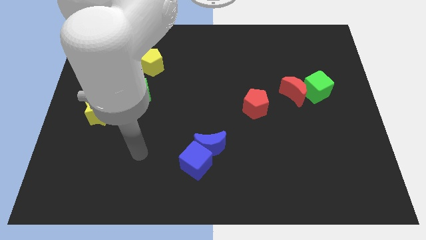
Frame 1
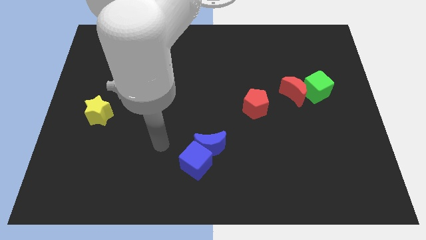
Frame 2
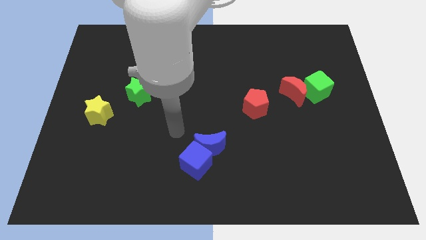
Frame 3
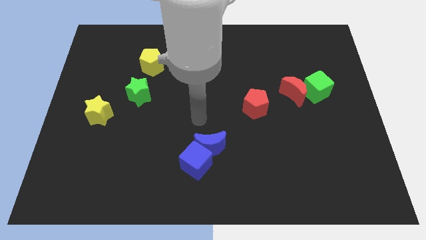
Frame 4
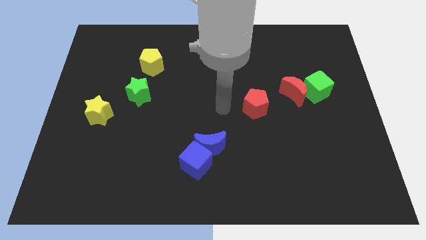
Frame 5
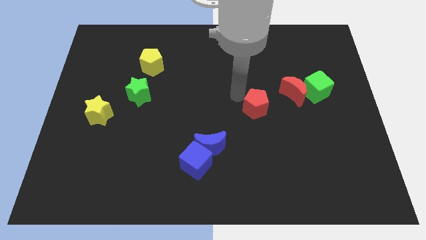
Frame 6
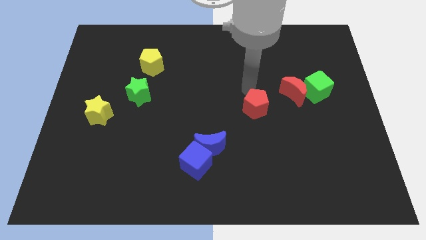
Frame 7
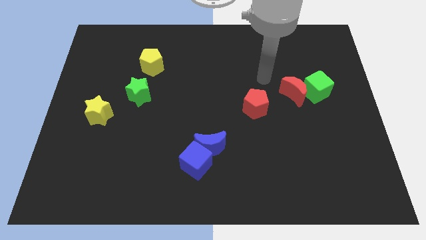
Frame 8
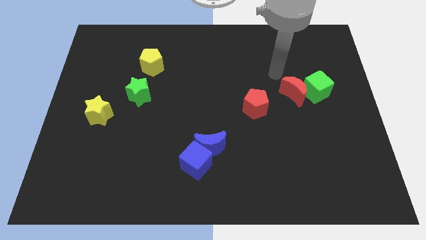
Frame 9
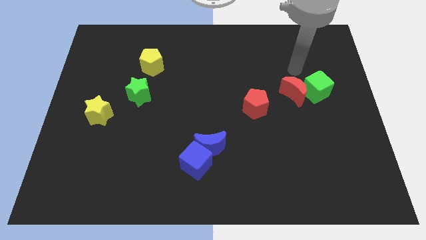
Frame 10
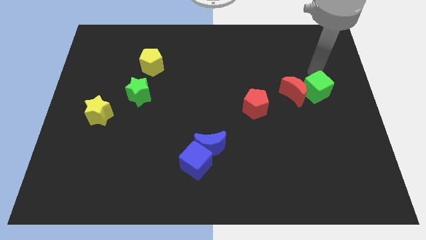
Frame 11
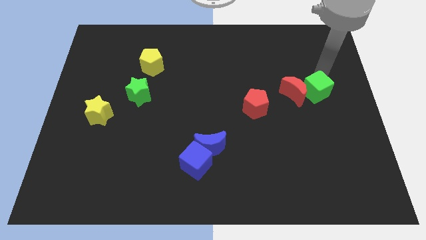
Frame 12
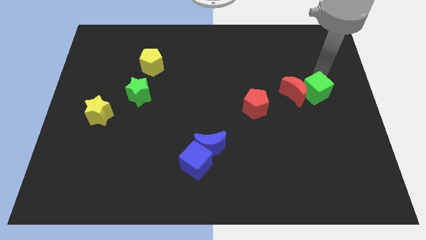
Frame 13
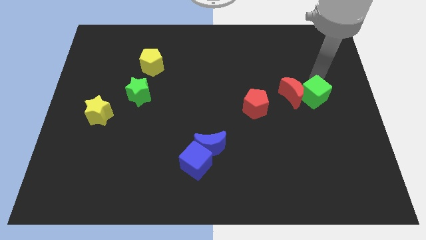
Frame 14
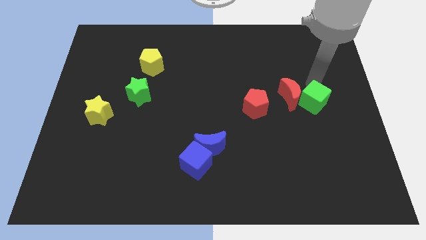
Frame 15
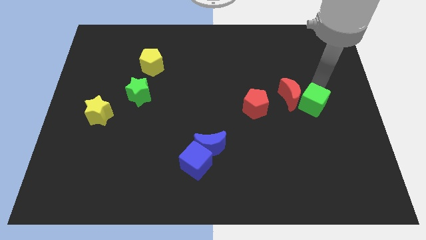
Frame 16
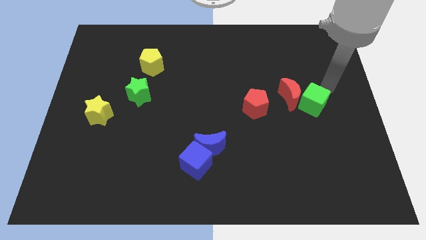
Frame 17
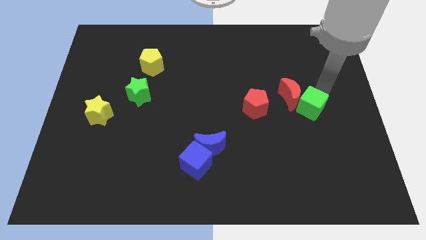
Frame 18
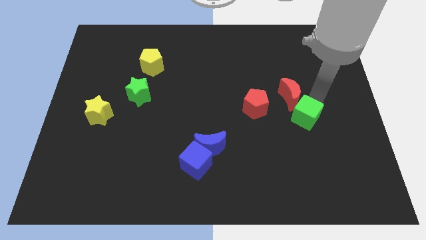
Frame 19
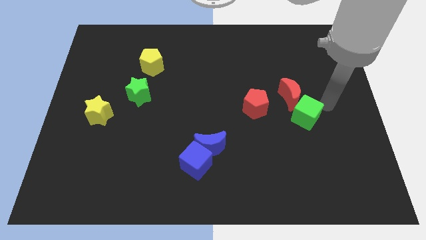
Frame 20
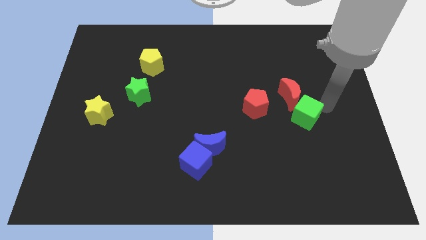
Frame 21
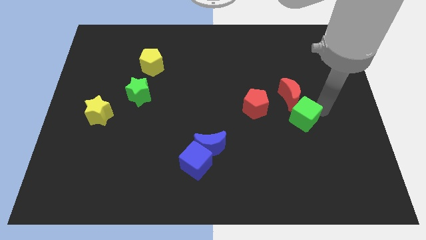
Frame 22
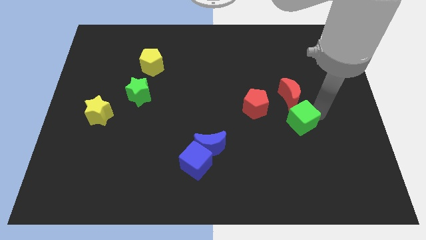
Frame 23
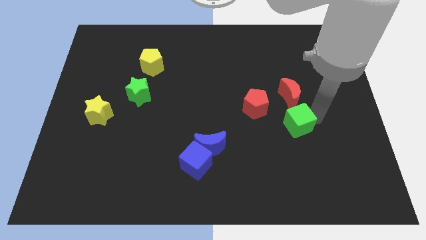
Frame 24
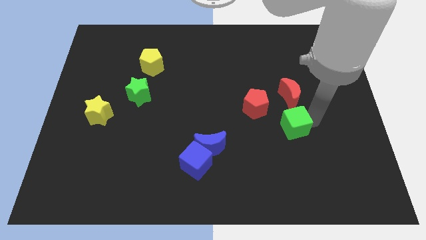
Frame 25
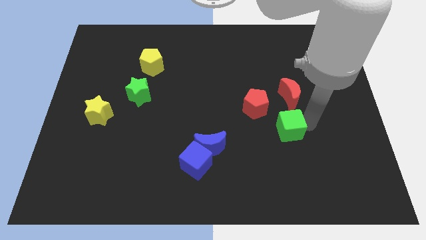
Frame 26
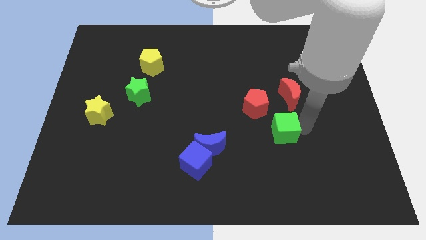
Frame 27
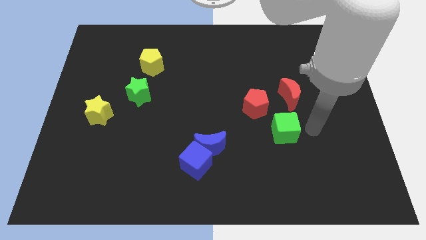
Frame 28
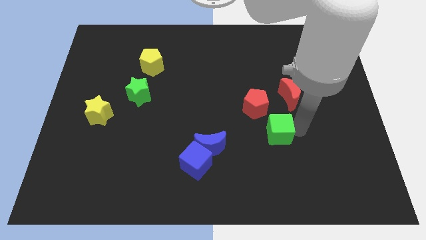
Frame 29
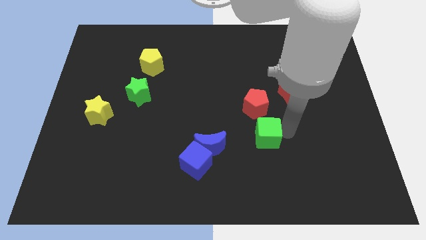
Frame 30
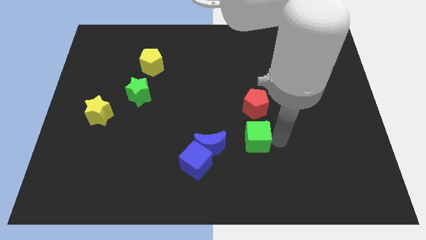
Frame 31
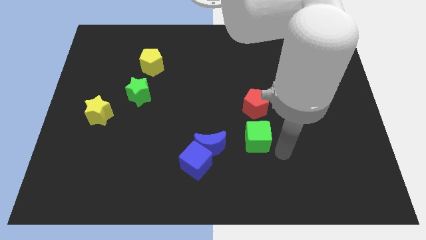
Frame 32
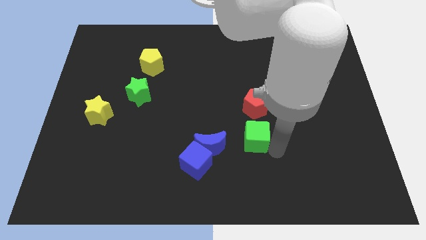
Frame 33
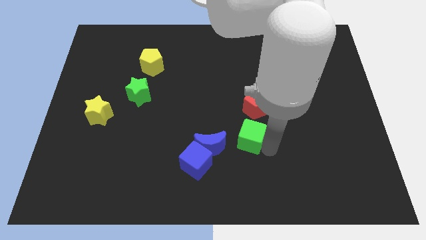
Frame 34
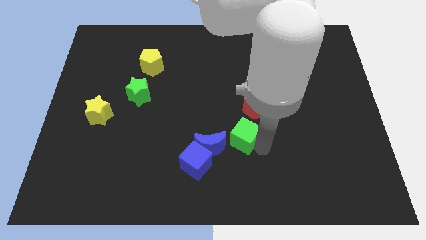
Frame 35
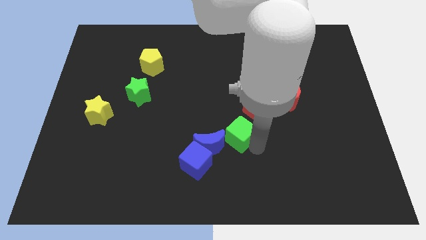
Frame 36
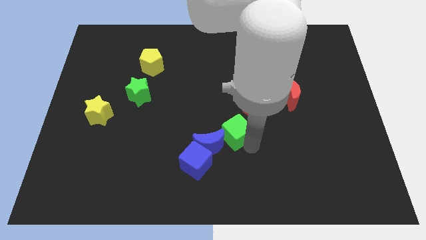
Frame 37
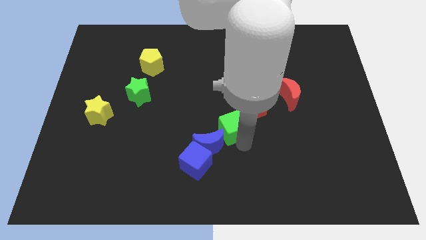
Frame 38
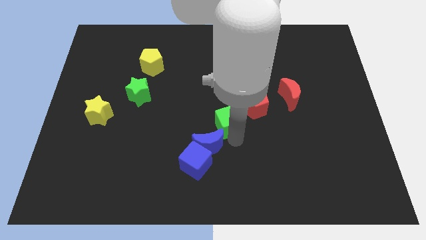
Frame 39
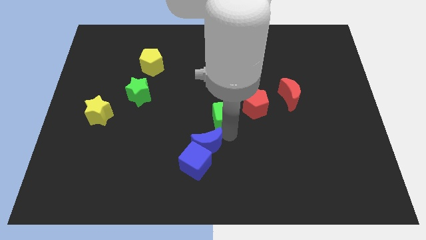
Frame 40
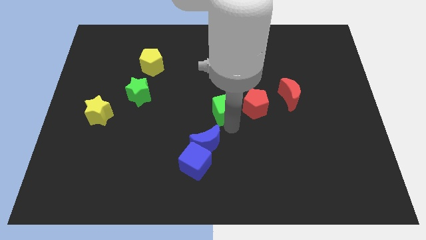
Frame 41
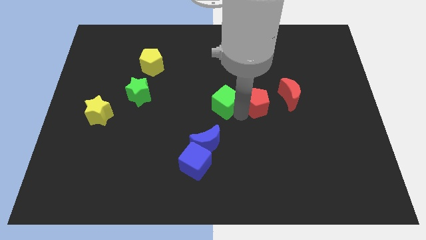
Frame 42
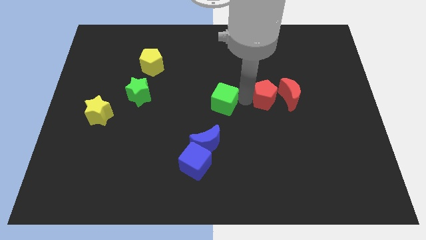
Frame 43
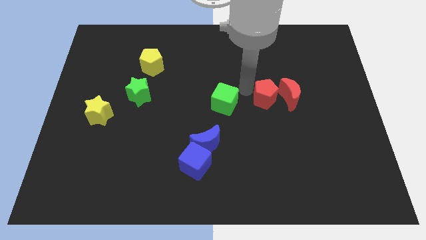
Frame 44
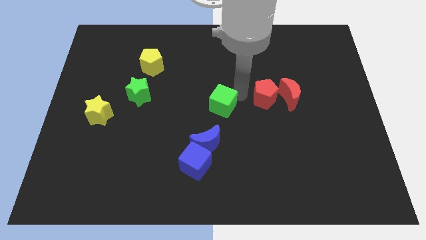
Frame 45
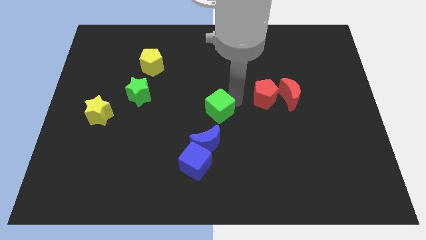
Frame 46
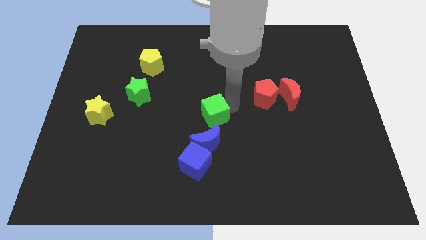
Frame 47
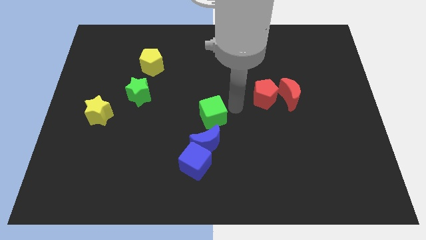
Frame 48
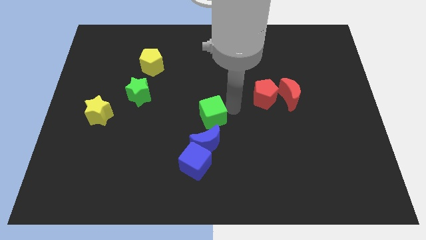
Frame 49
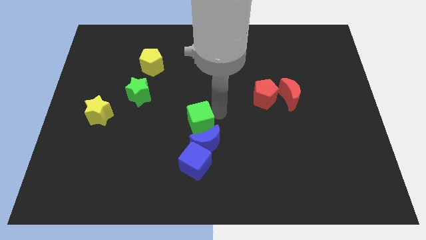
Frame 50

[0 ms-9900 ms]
push the green cube to the top left side of the blue moon

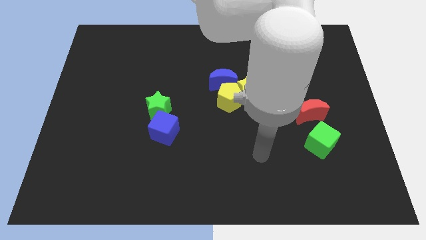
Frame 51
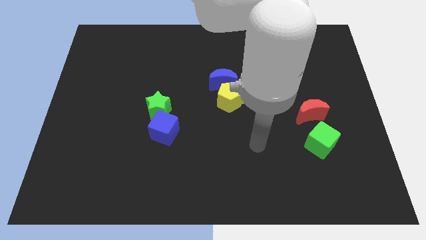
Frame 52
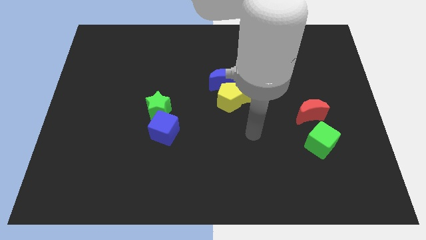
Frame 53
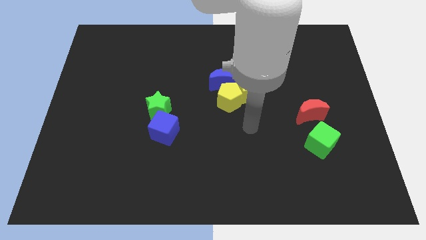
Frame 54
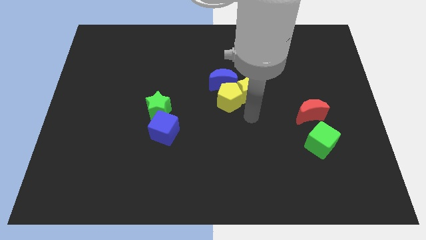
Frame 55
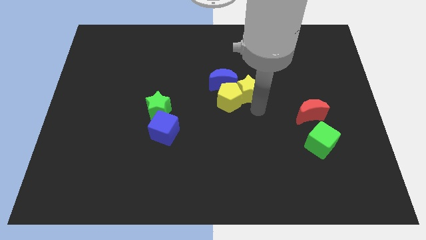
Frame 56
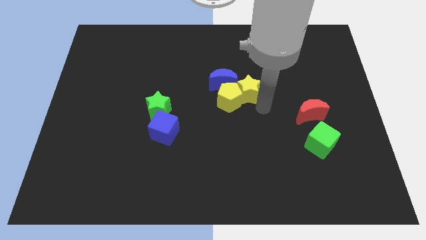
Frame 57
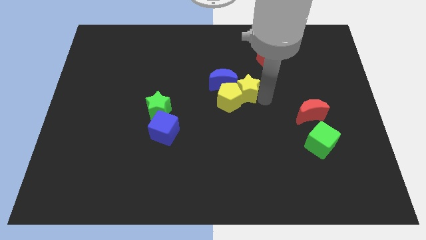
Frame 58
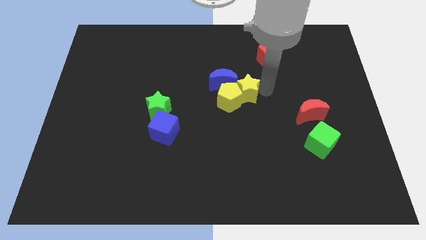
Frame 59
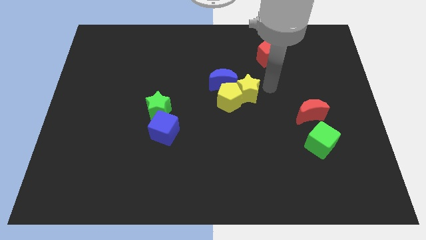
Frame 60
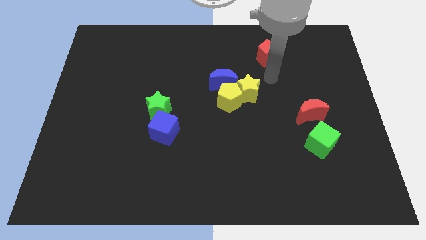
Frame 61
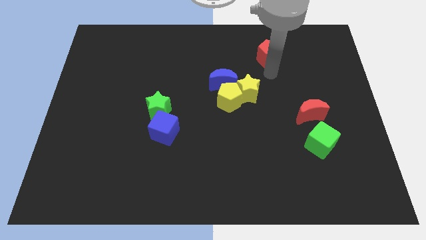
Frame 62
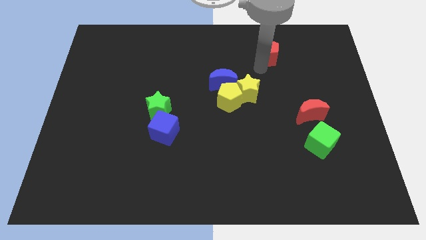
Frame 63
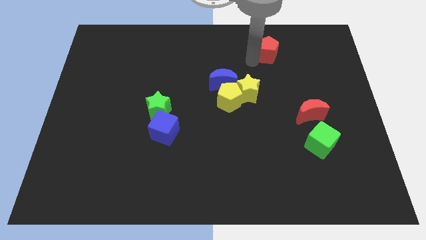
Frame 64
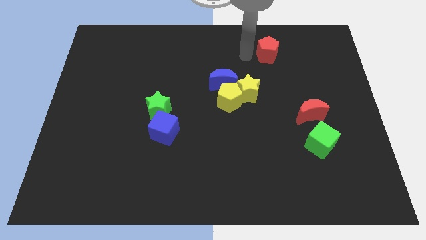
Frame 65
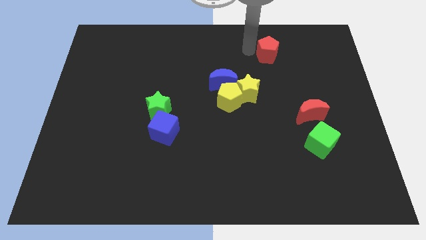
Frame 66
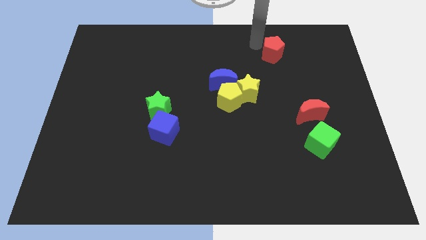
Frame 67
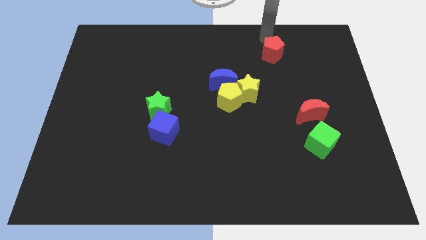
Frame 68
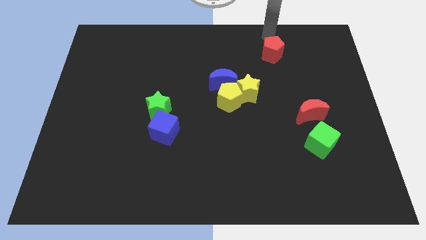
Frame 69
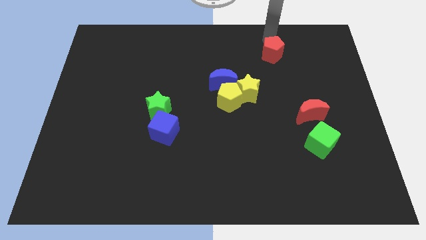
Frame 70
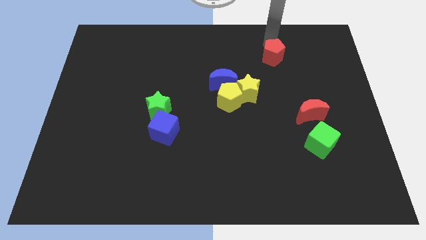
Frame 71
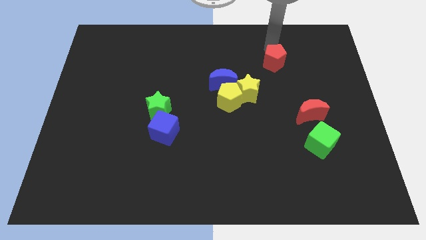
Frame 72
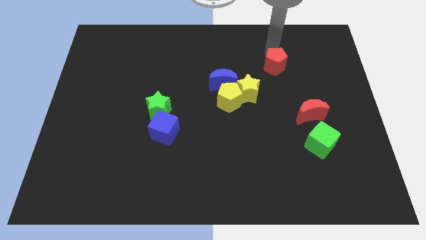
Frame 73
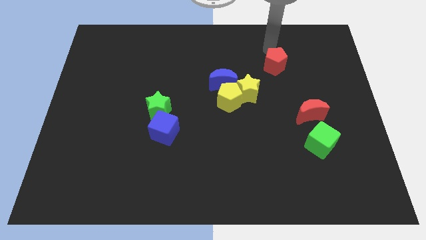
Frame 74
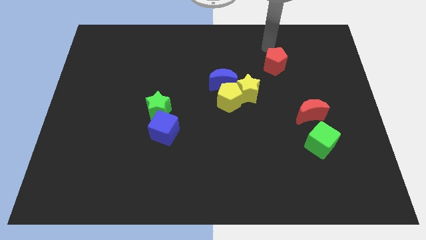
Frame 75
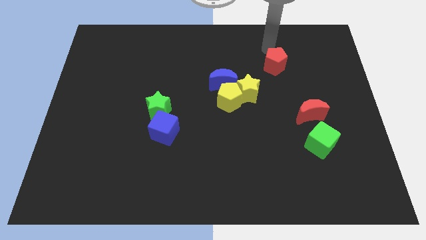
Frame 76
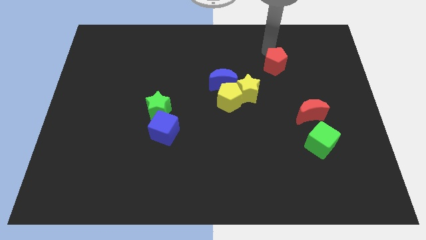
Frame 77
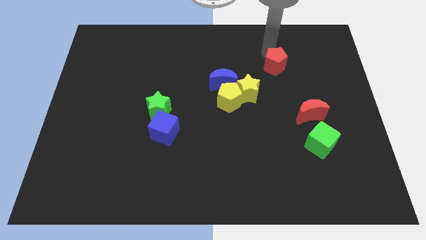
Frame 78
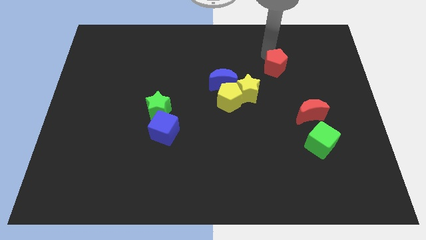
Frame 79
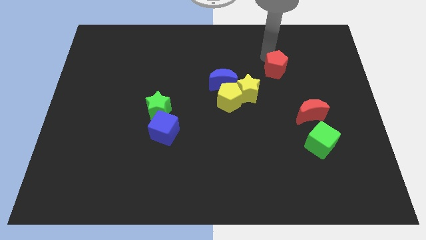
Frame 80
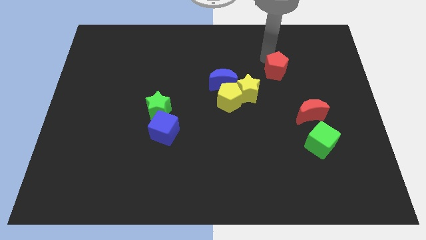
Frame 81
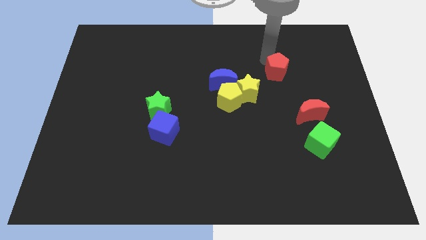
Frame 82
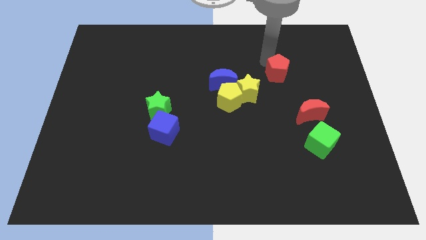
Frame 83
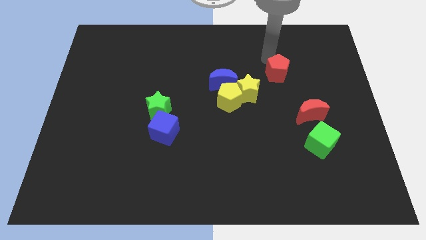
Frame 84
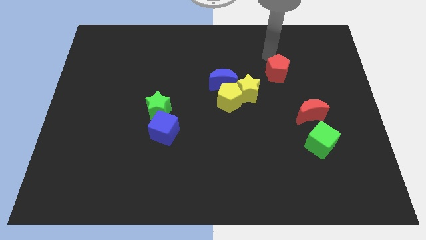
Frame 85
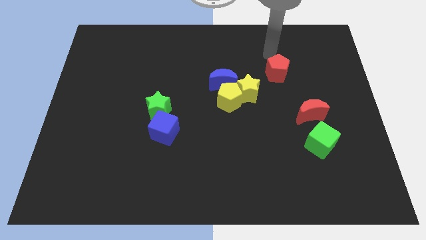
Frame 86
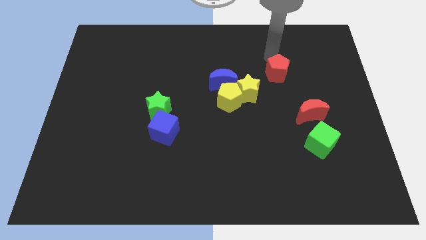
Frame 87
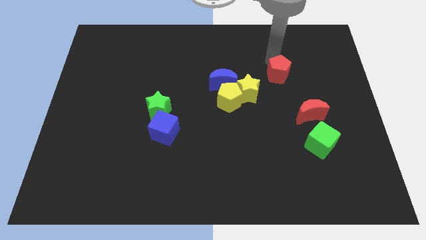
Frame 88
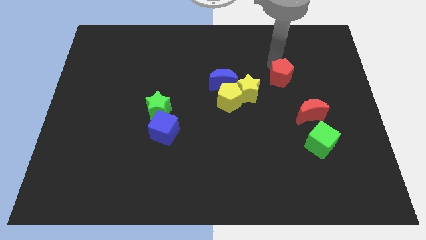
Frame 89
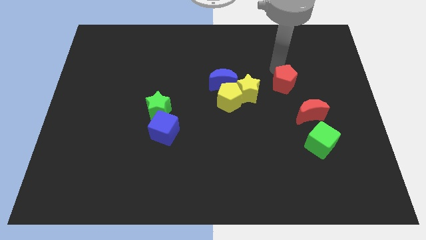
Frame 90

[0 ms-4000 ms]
slide the red pentagon to the top left of the red moon
